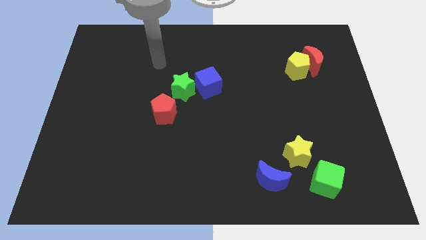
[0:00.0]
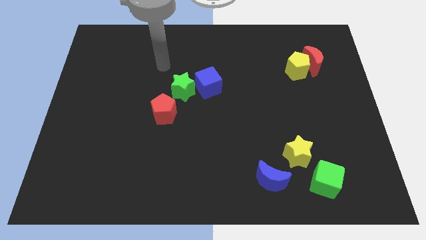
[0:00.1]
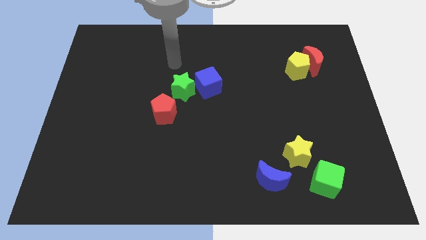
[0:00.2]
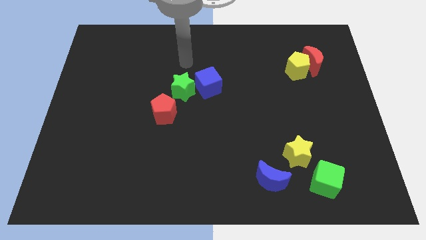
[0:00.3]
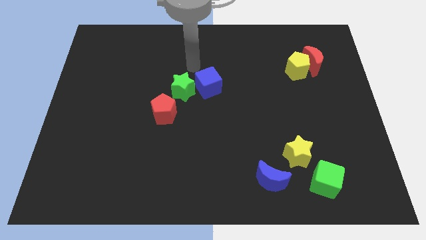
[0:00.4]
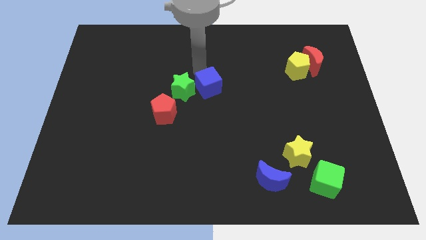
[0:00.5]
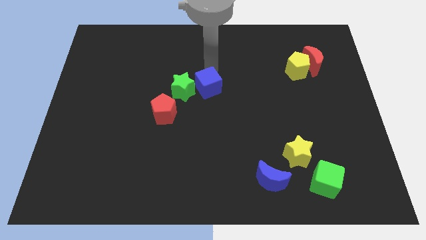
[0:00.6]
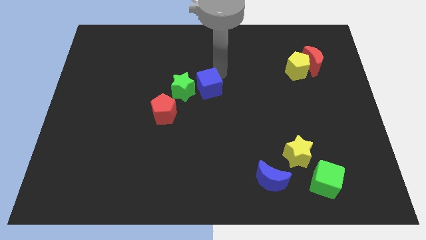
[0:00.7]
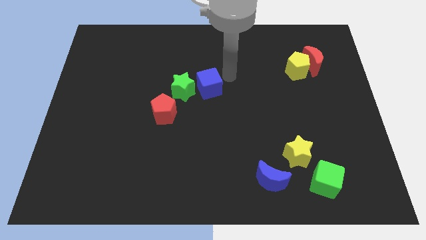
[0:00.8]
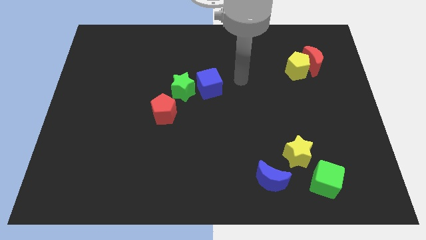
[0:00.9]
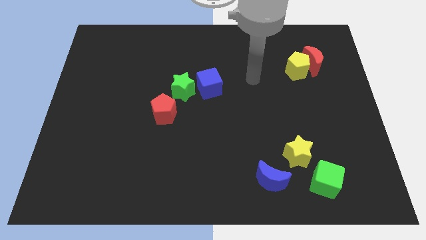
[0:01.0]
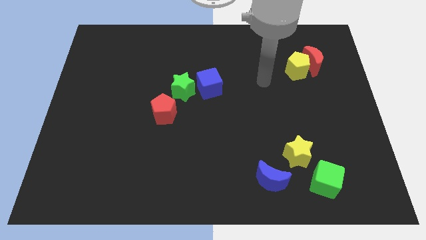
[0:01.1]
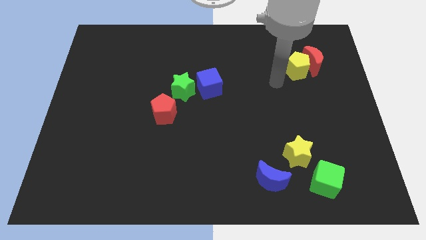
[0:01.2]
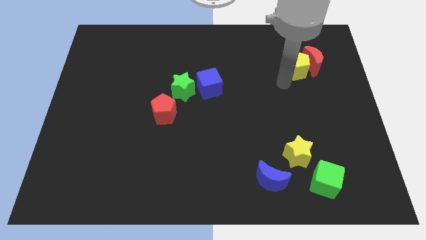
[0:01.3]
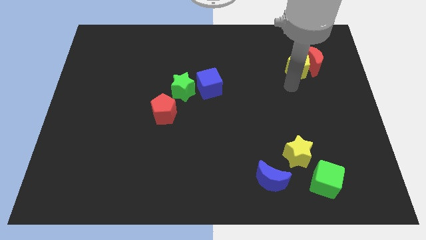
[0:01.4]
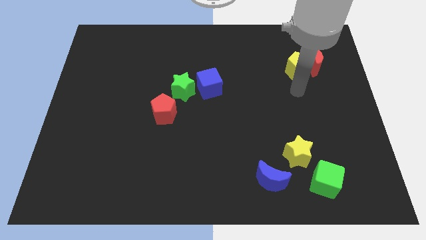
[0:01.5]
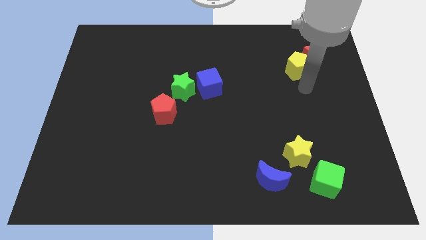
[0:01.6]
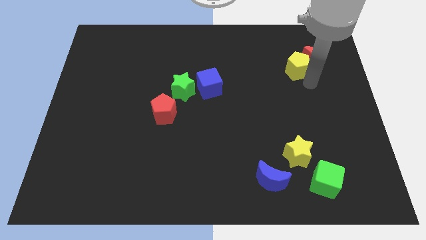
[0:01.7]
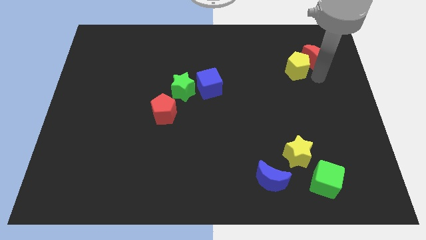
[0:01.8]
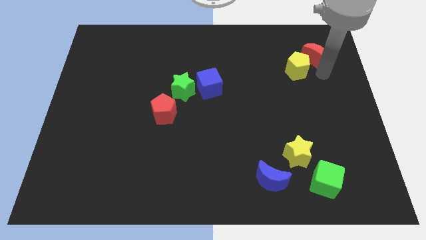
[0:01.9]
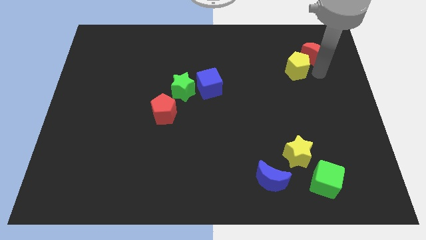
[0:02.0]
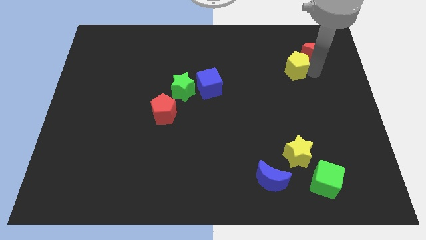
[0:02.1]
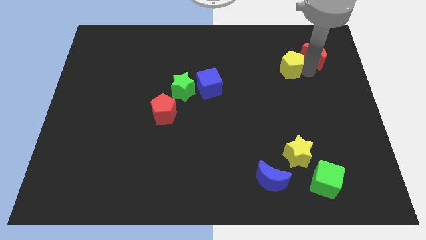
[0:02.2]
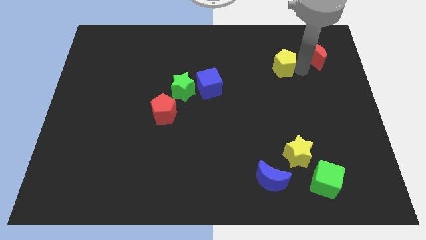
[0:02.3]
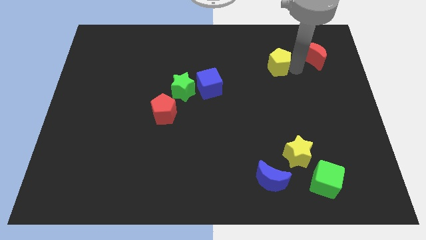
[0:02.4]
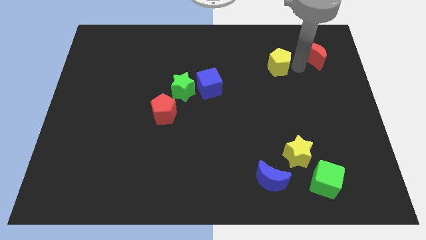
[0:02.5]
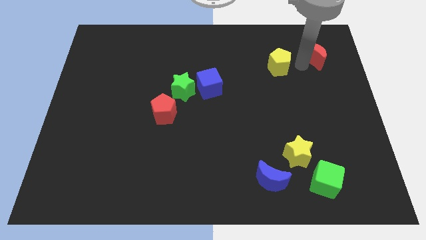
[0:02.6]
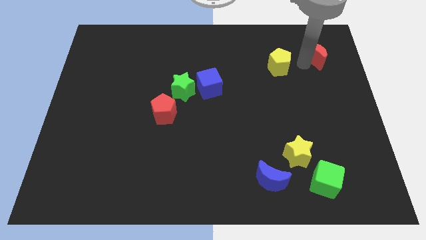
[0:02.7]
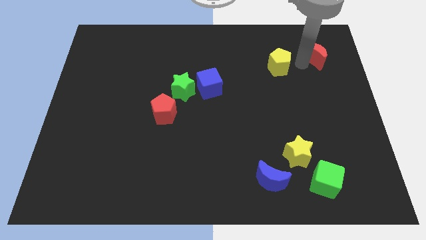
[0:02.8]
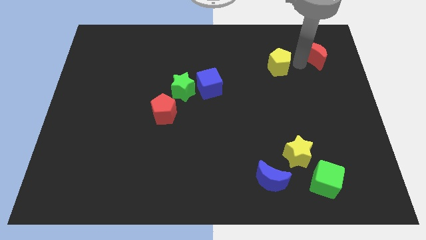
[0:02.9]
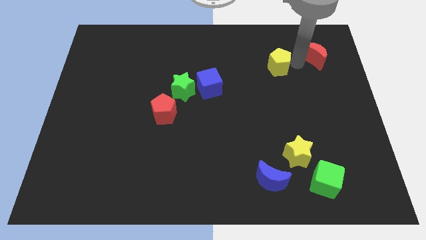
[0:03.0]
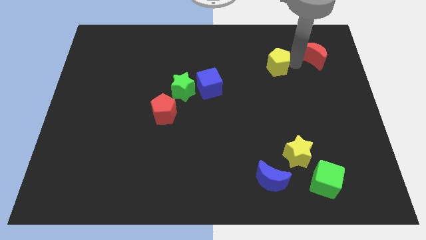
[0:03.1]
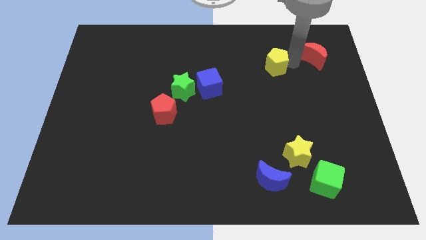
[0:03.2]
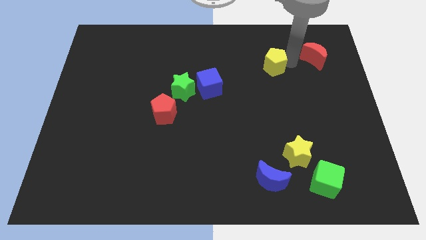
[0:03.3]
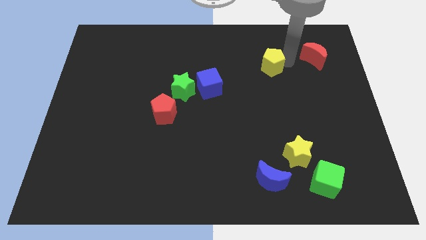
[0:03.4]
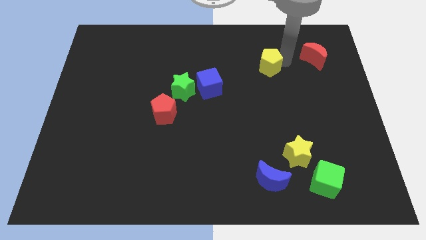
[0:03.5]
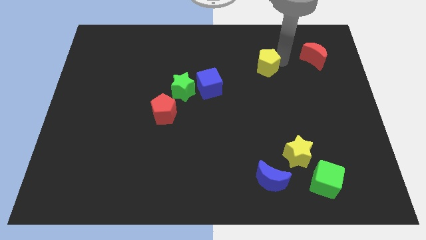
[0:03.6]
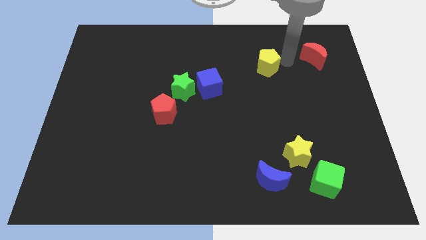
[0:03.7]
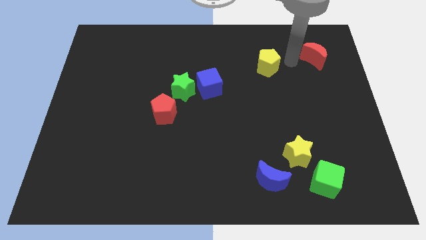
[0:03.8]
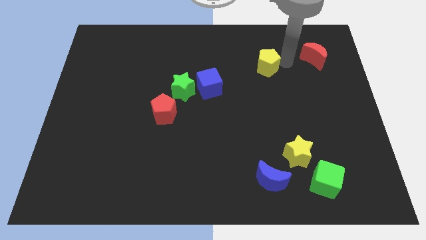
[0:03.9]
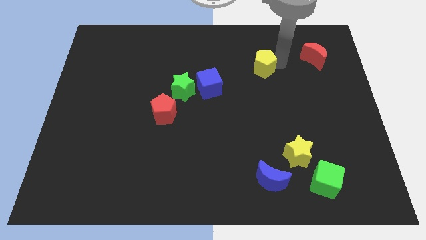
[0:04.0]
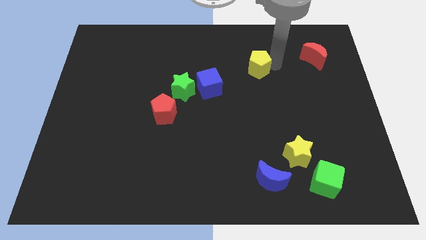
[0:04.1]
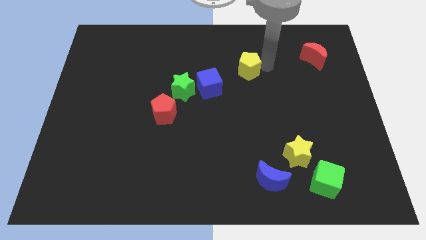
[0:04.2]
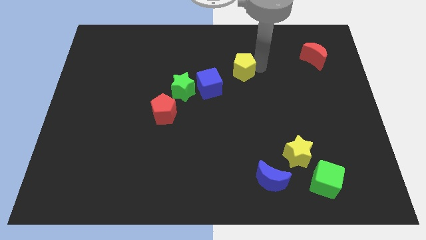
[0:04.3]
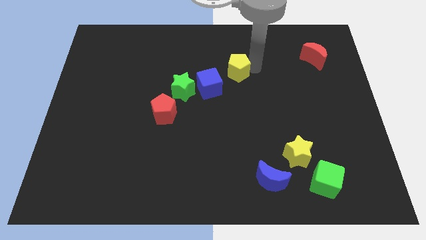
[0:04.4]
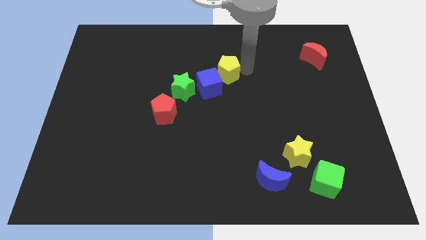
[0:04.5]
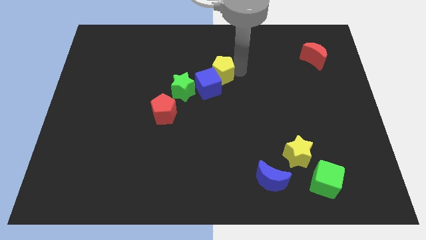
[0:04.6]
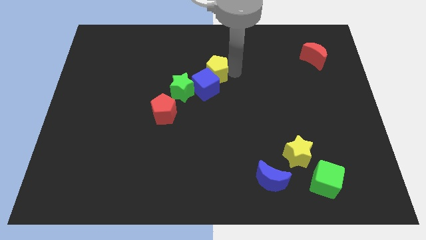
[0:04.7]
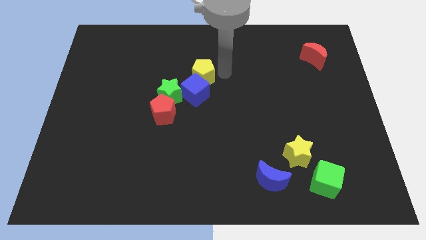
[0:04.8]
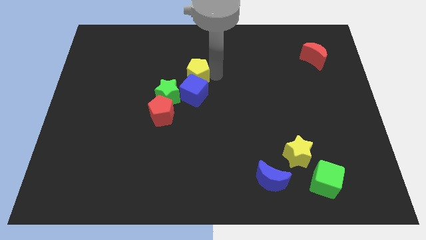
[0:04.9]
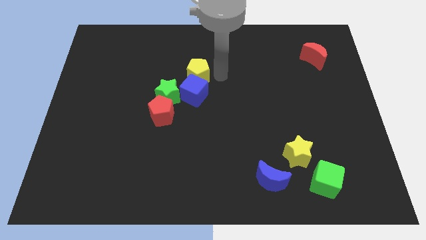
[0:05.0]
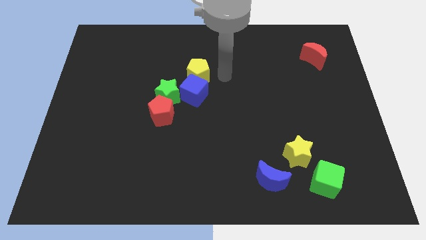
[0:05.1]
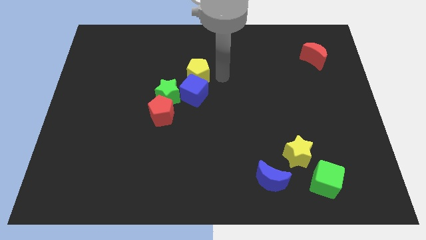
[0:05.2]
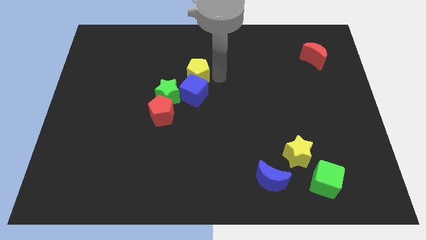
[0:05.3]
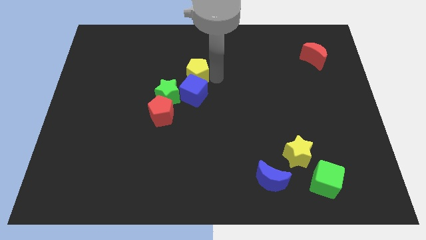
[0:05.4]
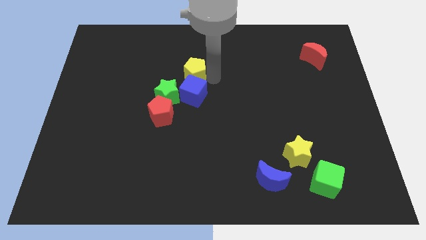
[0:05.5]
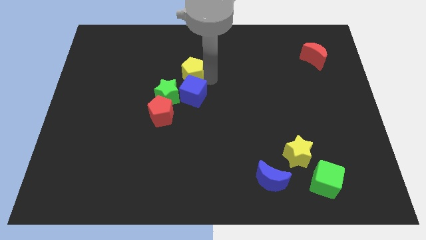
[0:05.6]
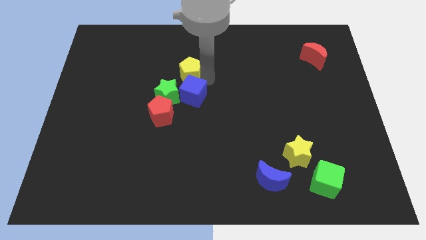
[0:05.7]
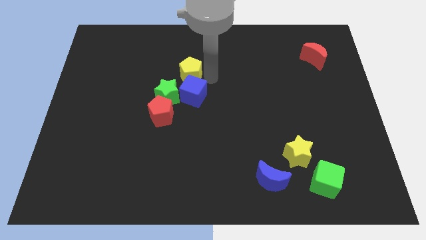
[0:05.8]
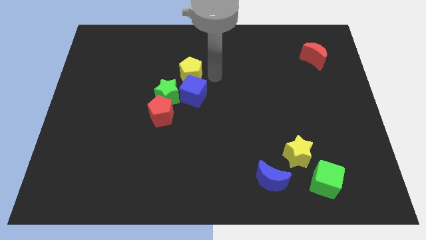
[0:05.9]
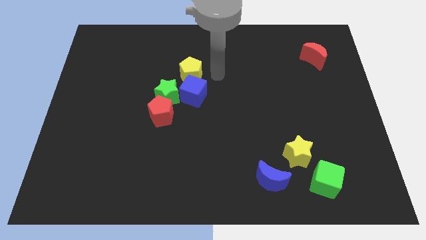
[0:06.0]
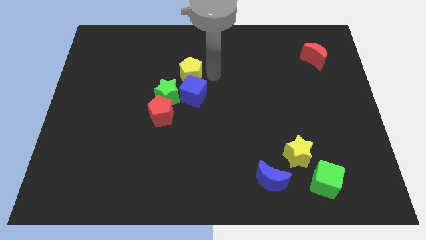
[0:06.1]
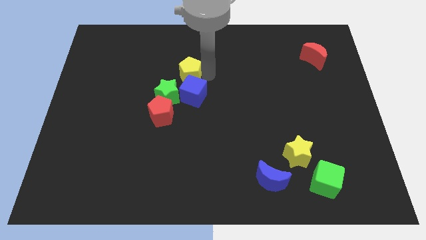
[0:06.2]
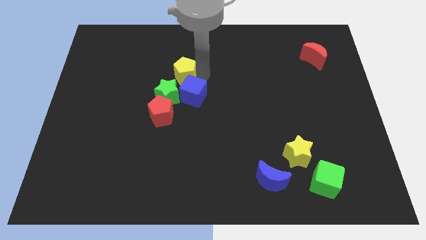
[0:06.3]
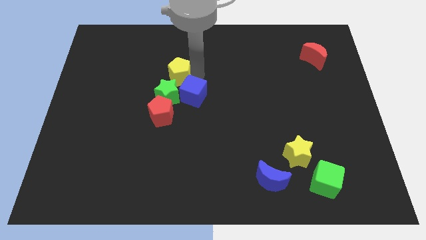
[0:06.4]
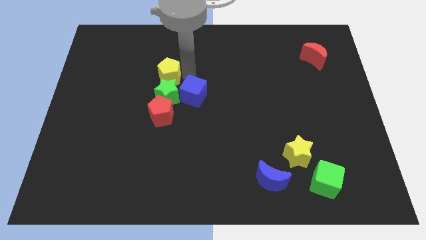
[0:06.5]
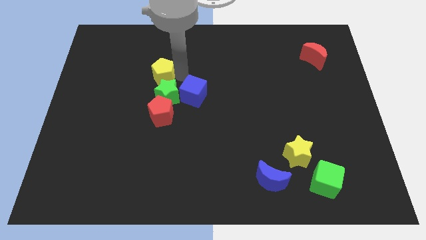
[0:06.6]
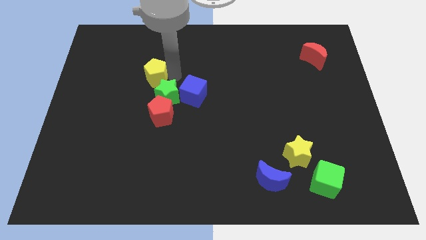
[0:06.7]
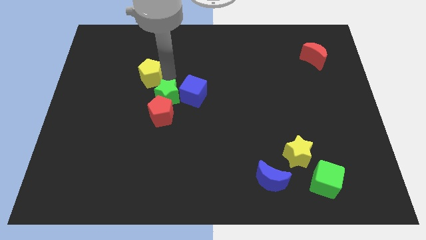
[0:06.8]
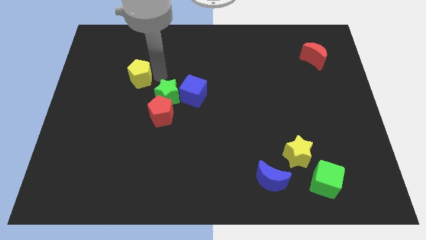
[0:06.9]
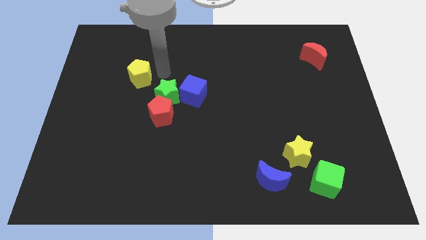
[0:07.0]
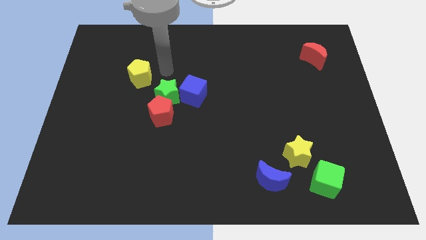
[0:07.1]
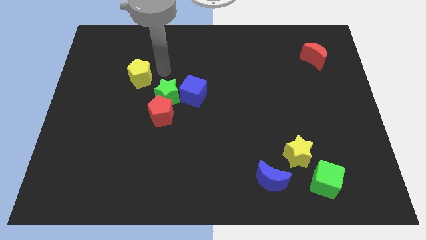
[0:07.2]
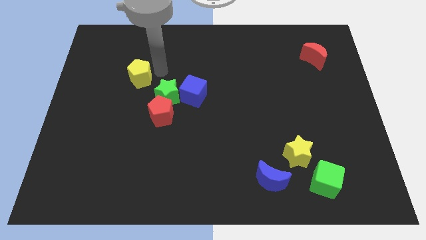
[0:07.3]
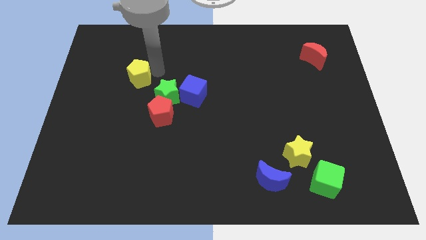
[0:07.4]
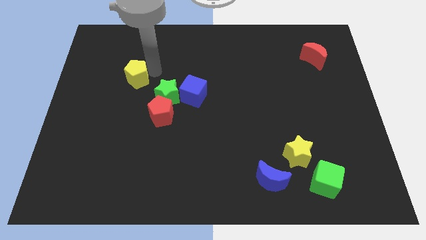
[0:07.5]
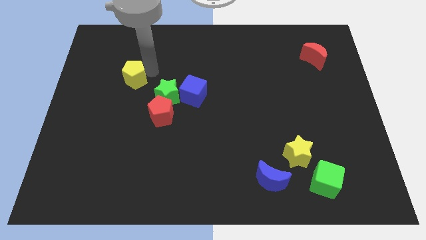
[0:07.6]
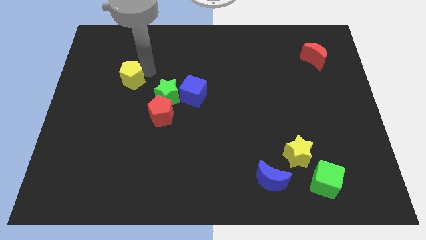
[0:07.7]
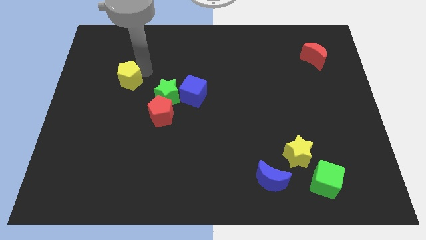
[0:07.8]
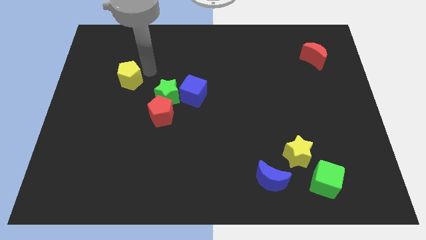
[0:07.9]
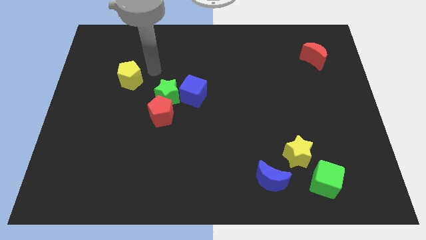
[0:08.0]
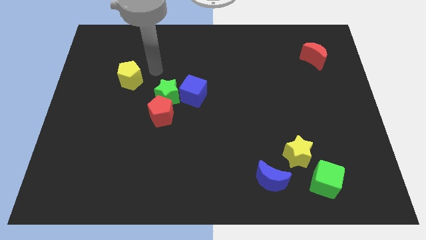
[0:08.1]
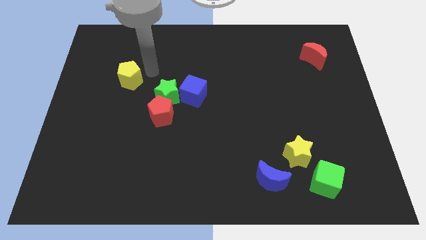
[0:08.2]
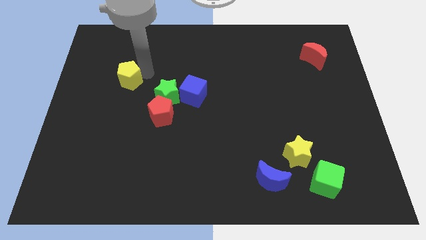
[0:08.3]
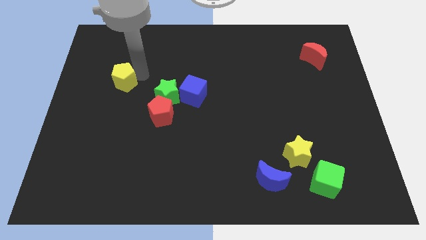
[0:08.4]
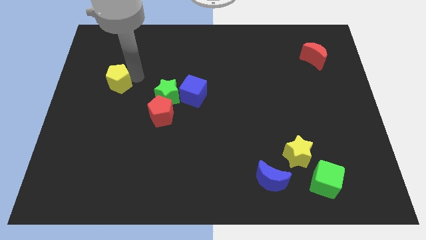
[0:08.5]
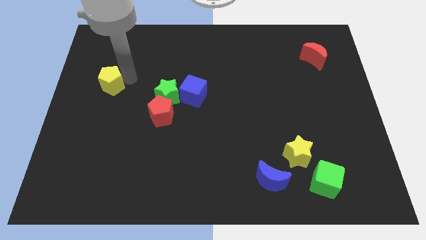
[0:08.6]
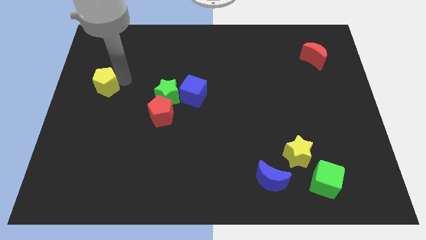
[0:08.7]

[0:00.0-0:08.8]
put the yellow pentagon to the left side of the board
